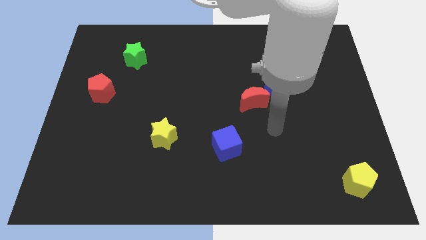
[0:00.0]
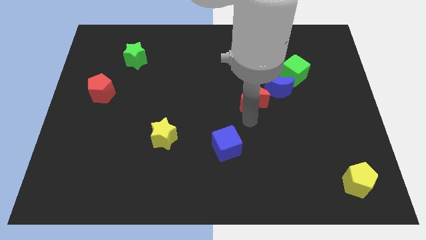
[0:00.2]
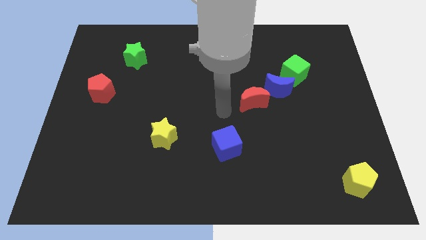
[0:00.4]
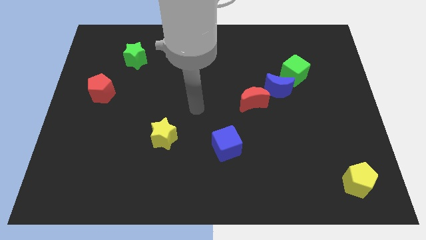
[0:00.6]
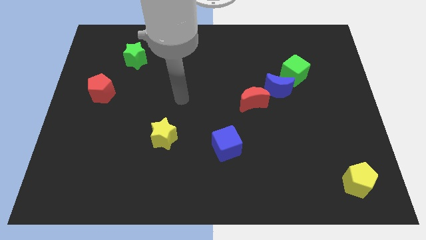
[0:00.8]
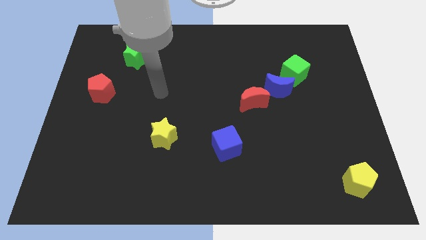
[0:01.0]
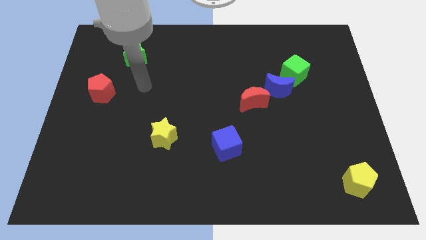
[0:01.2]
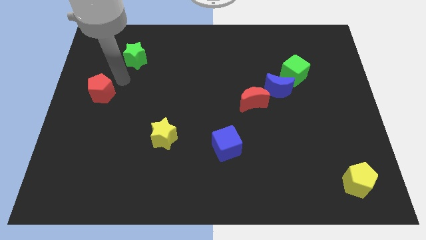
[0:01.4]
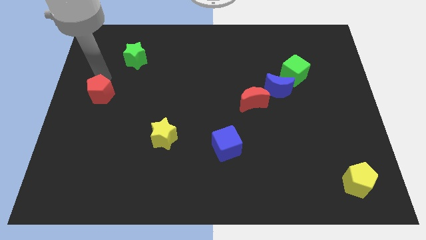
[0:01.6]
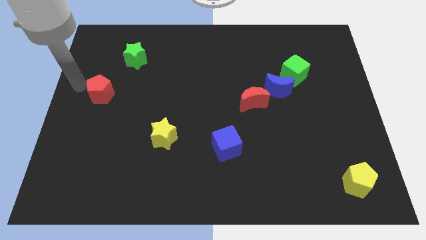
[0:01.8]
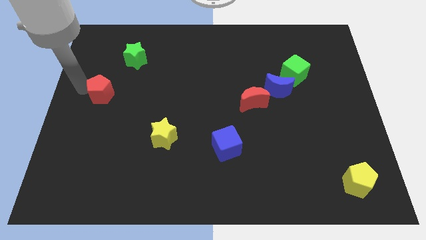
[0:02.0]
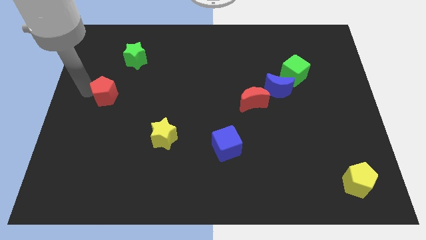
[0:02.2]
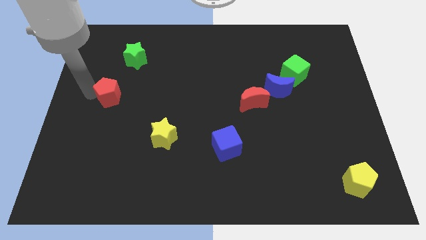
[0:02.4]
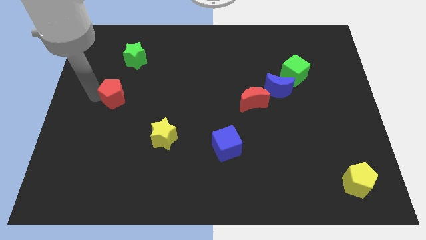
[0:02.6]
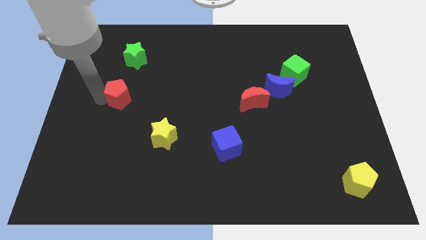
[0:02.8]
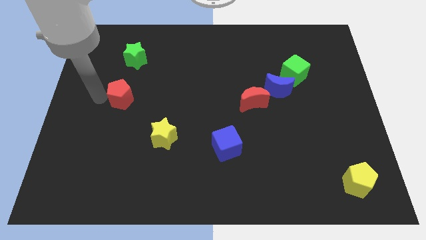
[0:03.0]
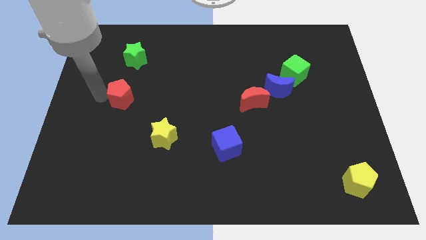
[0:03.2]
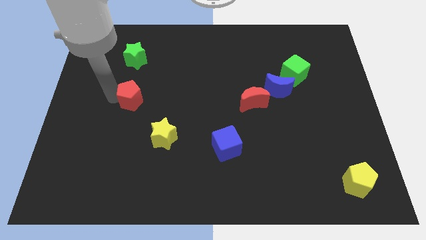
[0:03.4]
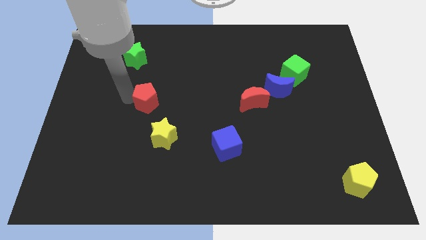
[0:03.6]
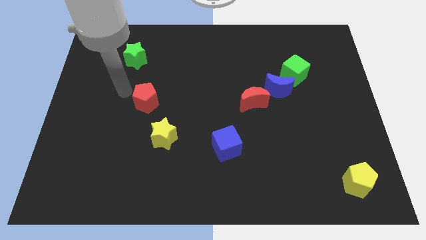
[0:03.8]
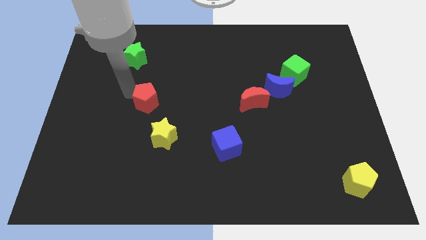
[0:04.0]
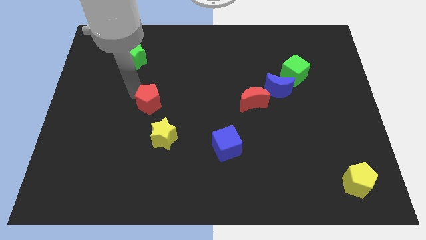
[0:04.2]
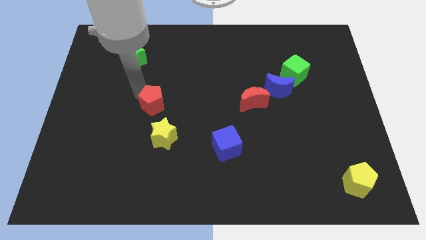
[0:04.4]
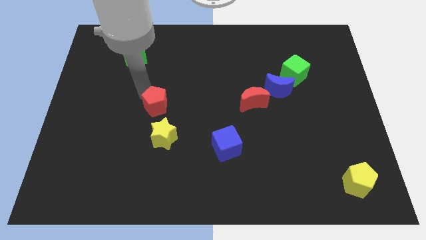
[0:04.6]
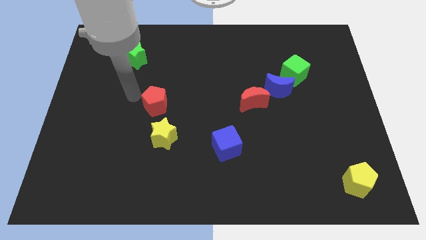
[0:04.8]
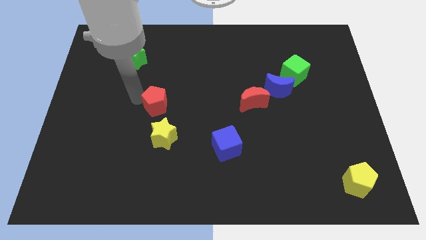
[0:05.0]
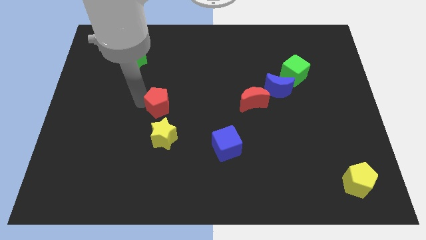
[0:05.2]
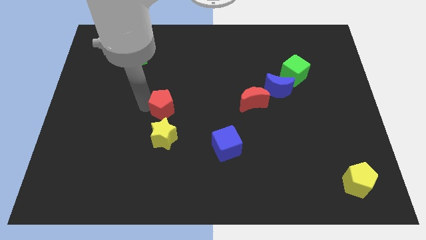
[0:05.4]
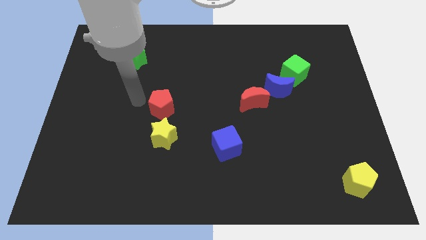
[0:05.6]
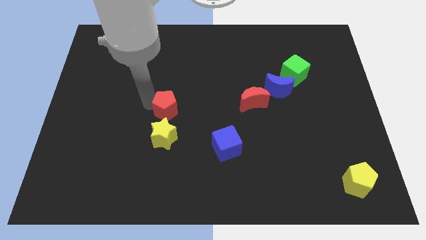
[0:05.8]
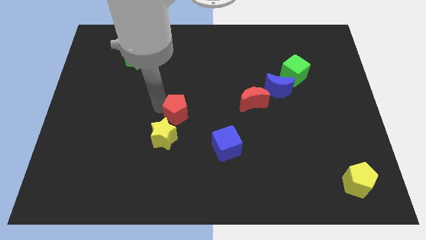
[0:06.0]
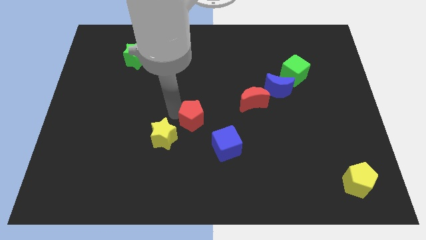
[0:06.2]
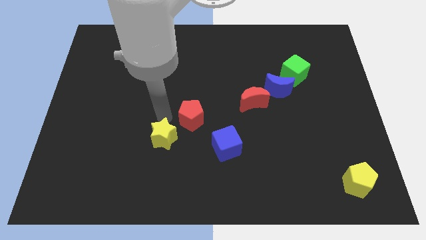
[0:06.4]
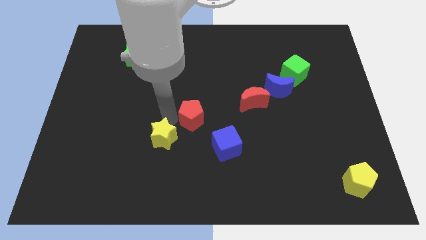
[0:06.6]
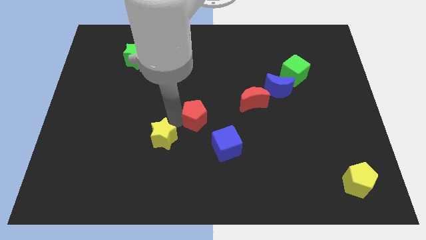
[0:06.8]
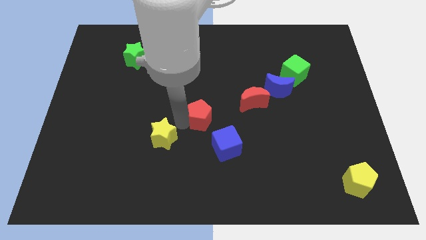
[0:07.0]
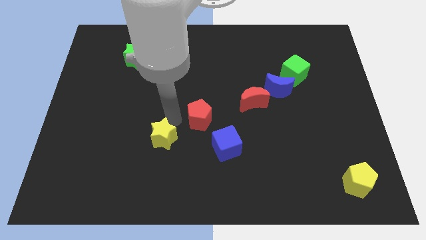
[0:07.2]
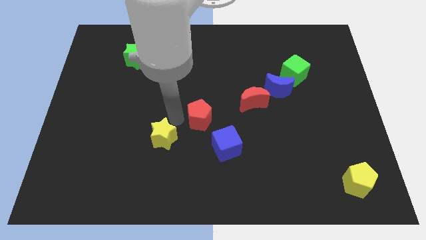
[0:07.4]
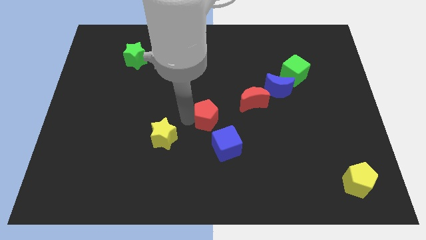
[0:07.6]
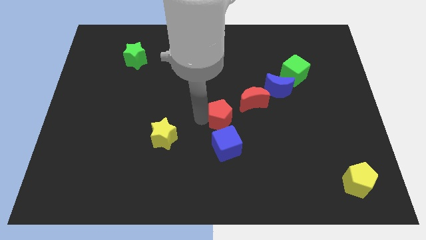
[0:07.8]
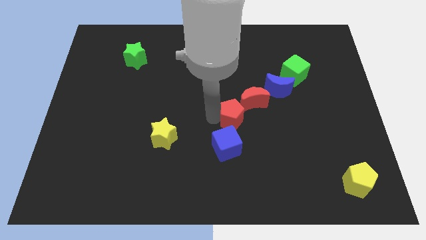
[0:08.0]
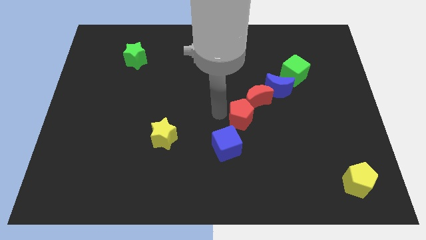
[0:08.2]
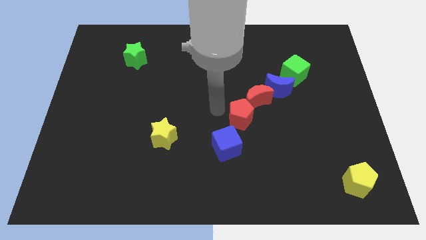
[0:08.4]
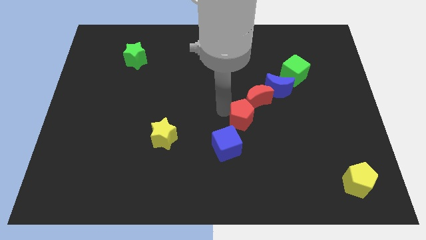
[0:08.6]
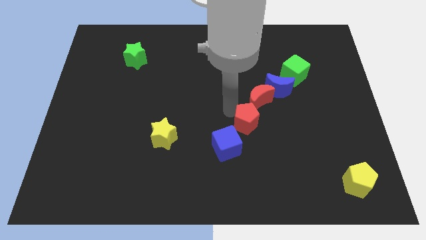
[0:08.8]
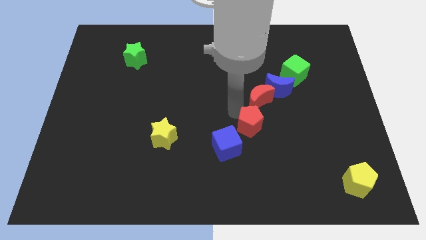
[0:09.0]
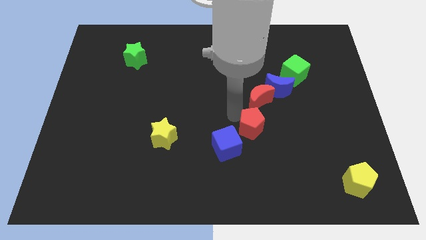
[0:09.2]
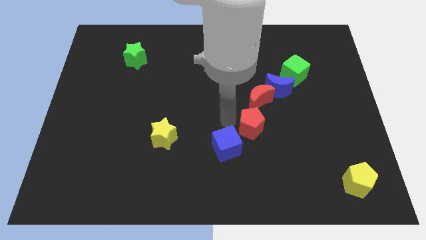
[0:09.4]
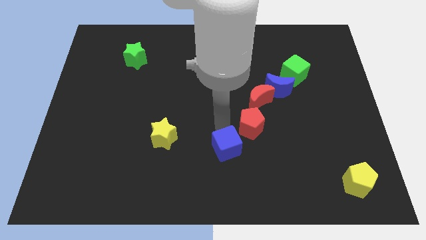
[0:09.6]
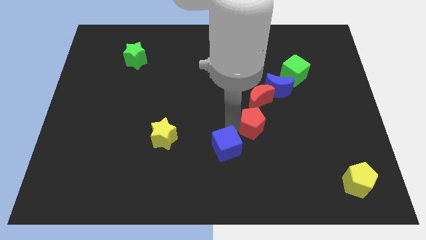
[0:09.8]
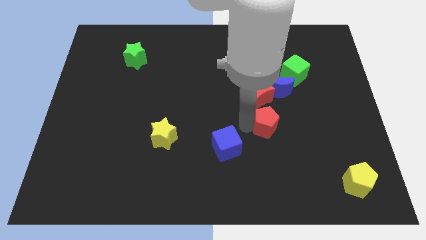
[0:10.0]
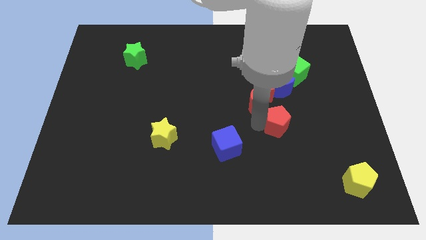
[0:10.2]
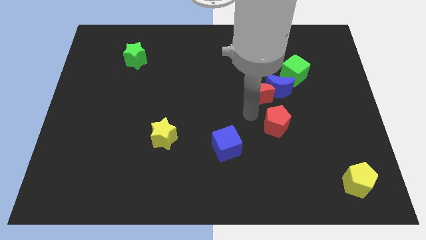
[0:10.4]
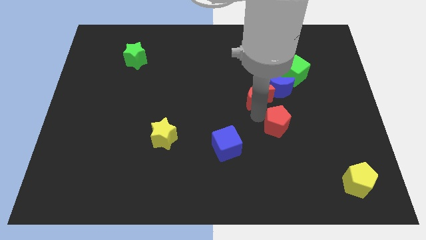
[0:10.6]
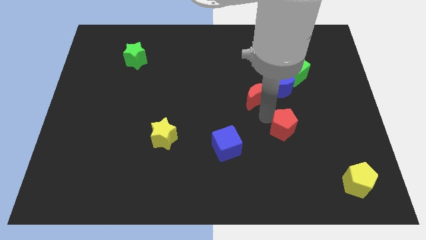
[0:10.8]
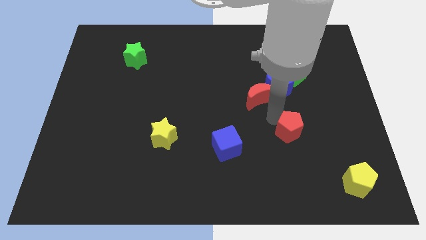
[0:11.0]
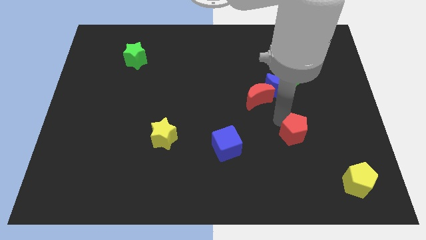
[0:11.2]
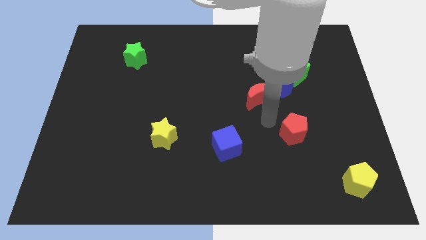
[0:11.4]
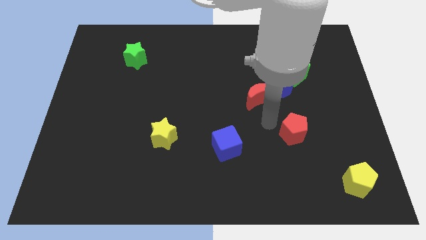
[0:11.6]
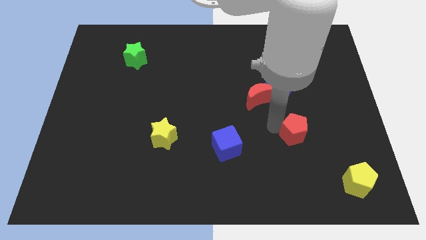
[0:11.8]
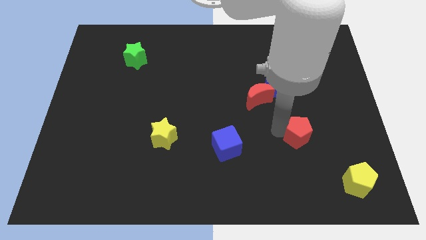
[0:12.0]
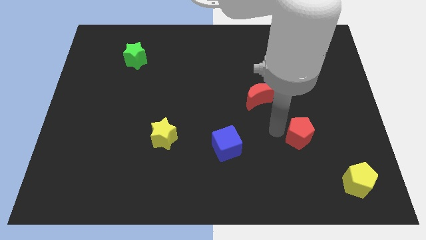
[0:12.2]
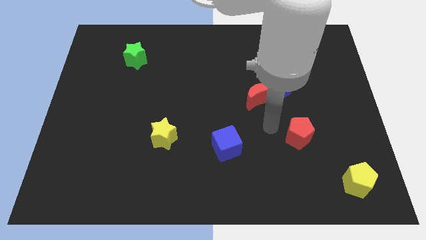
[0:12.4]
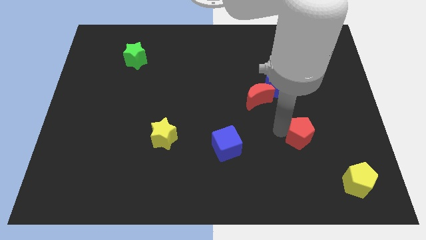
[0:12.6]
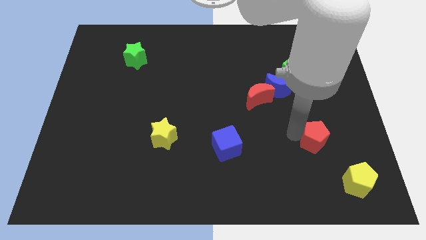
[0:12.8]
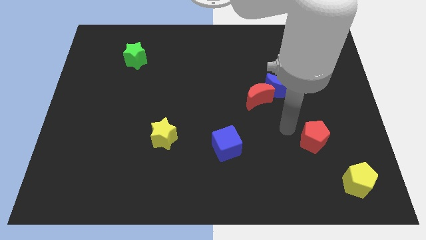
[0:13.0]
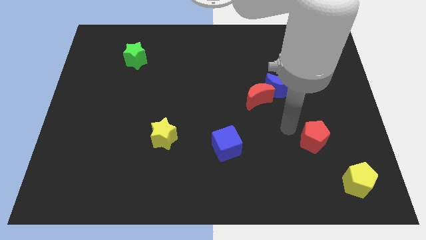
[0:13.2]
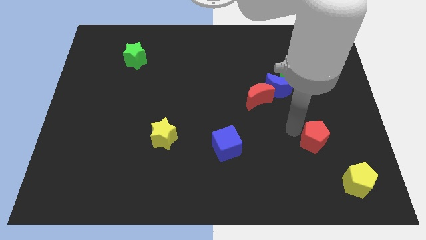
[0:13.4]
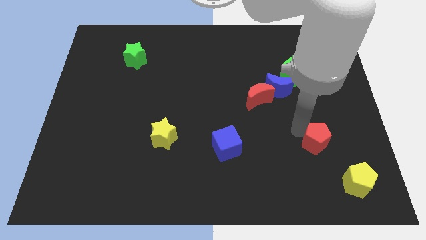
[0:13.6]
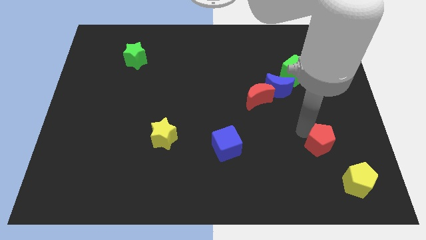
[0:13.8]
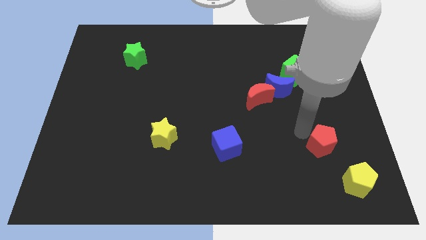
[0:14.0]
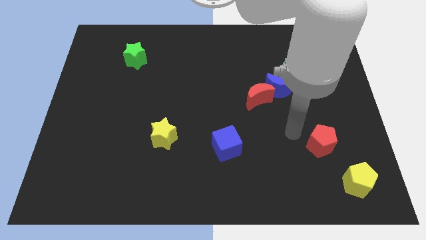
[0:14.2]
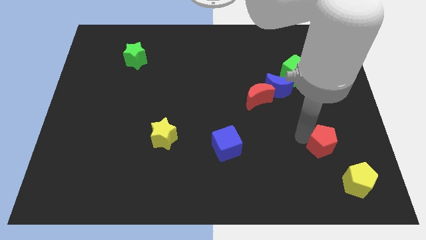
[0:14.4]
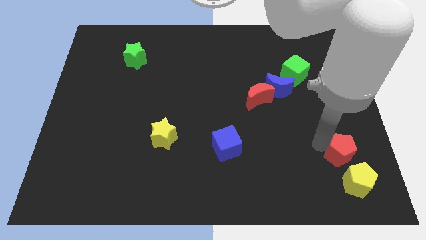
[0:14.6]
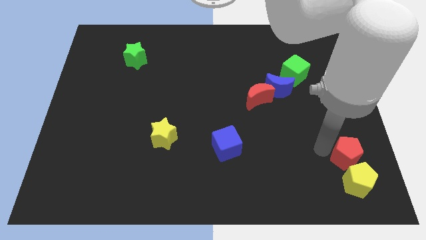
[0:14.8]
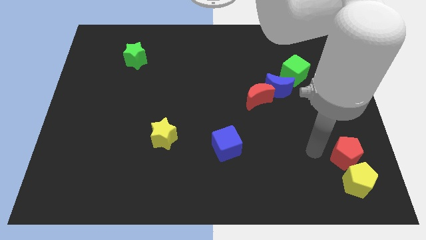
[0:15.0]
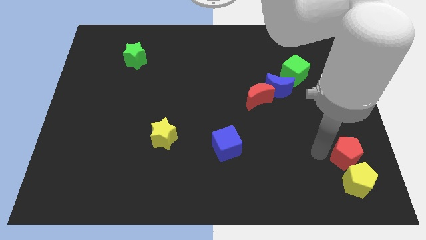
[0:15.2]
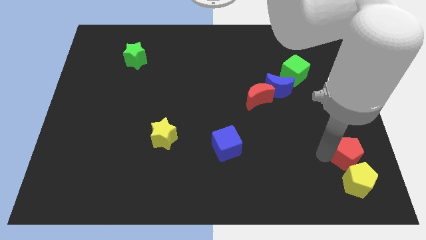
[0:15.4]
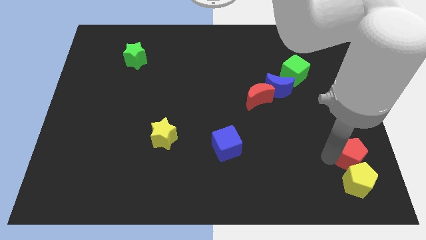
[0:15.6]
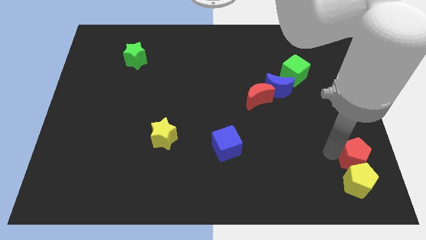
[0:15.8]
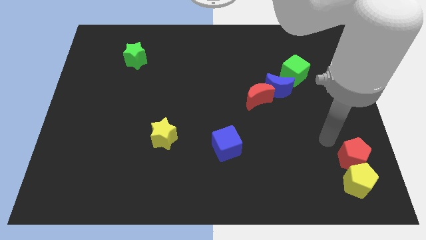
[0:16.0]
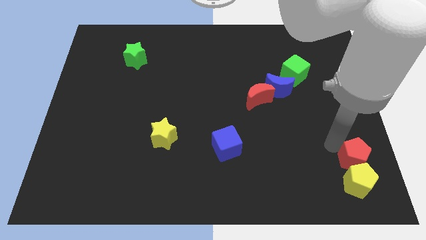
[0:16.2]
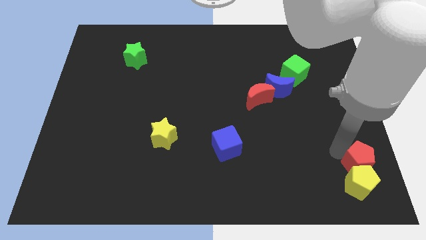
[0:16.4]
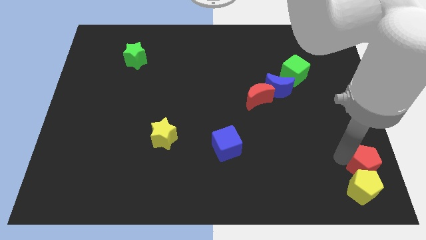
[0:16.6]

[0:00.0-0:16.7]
move the red pentagon to the bottom right of the board
